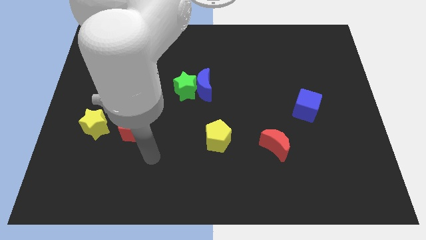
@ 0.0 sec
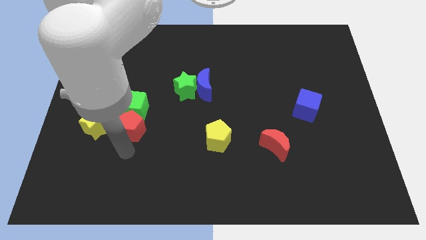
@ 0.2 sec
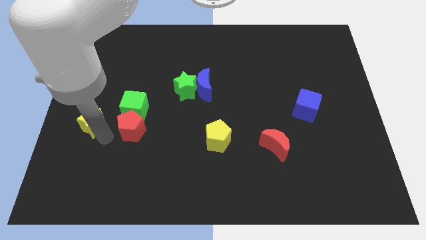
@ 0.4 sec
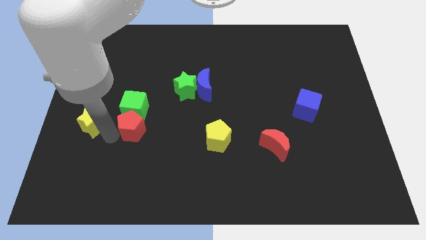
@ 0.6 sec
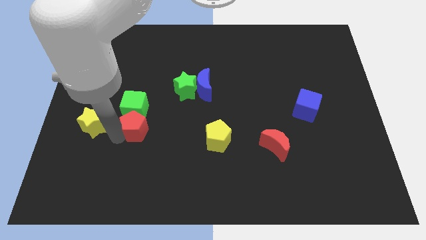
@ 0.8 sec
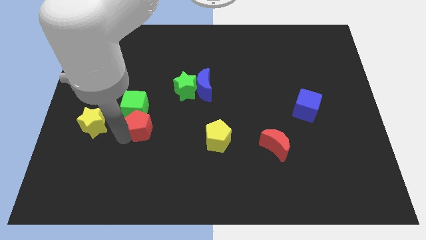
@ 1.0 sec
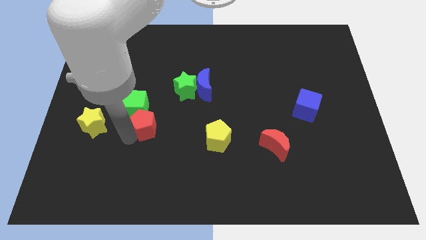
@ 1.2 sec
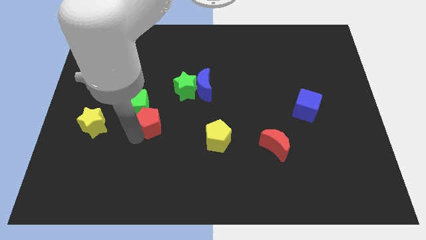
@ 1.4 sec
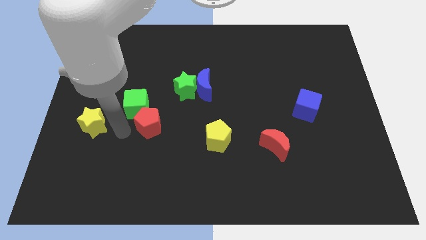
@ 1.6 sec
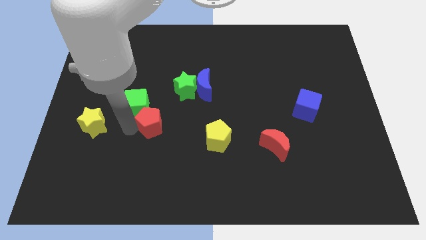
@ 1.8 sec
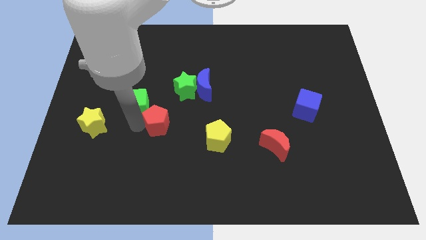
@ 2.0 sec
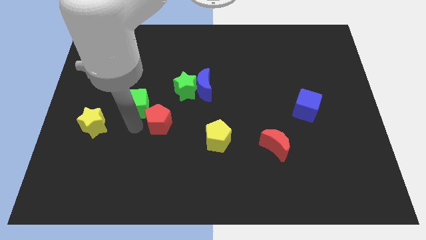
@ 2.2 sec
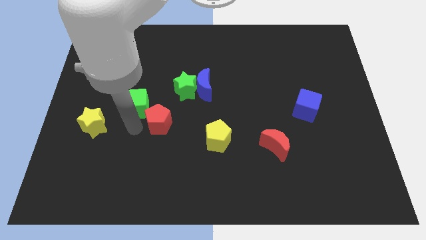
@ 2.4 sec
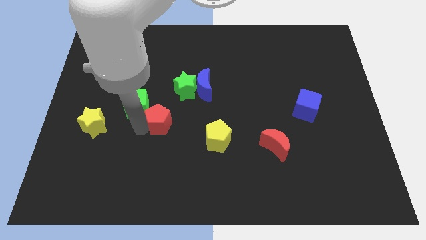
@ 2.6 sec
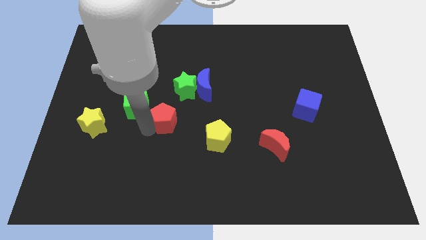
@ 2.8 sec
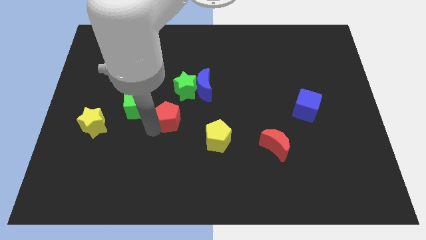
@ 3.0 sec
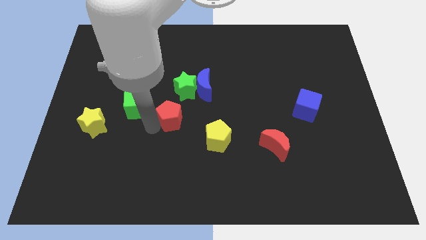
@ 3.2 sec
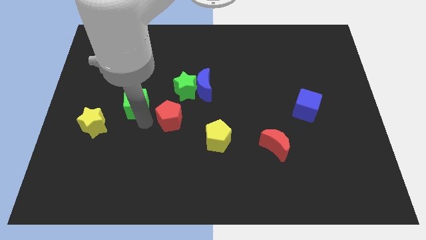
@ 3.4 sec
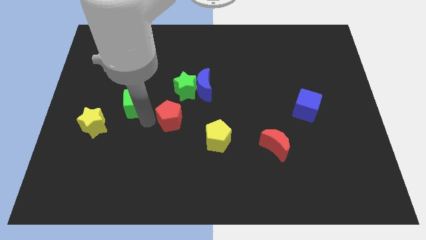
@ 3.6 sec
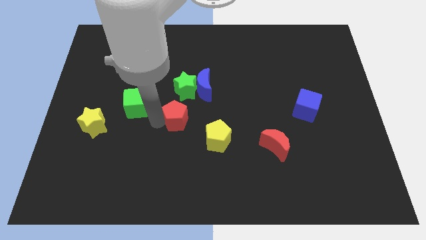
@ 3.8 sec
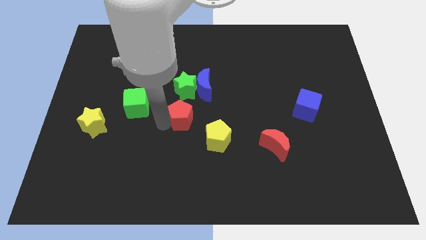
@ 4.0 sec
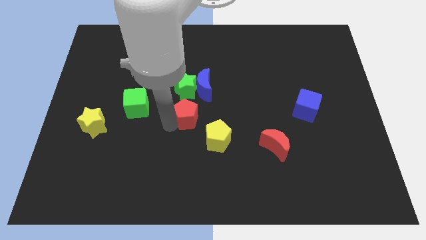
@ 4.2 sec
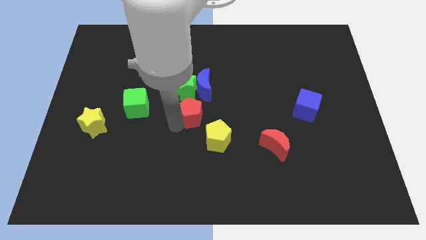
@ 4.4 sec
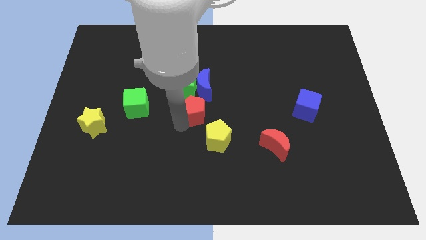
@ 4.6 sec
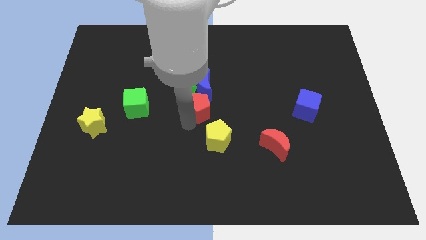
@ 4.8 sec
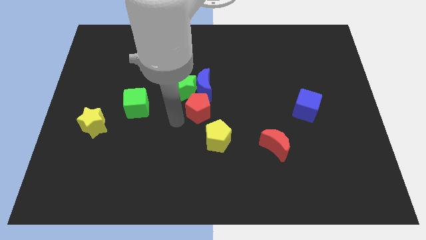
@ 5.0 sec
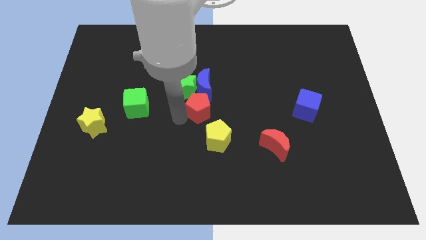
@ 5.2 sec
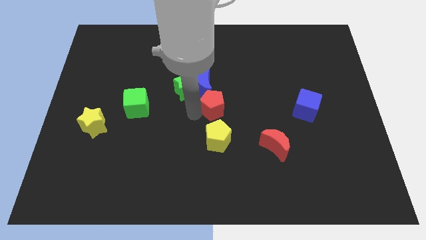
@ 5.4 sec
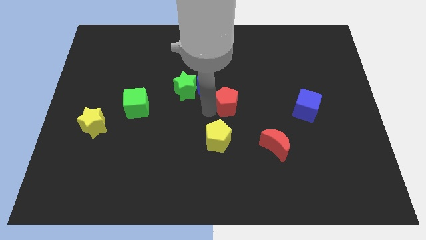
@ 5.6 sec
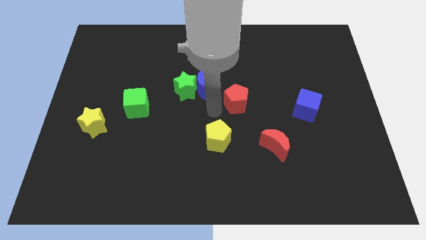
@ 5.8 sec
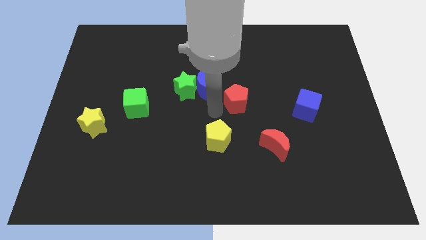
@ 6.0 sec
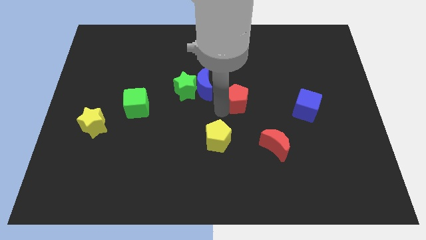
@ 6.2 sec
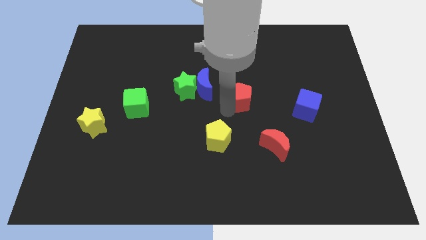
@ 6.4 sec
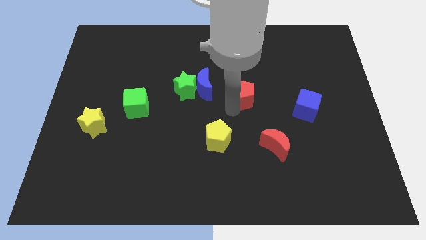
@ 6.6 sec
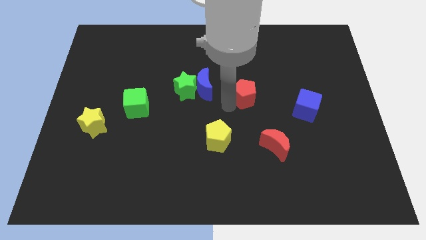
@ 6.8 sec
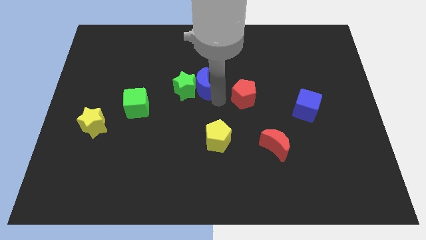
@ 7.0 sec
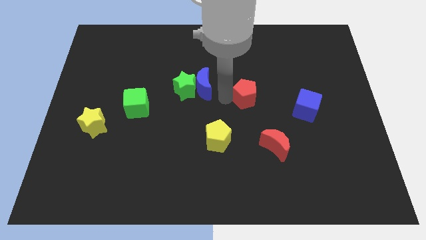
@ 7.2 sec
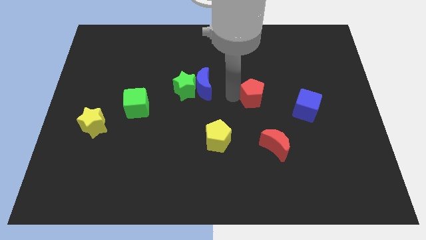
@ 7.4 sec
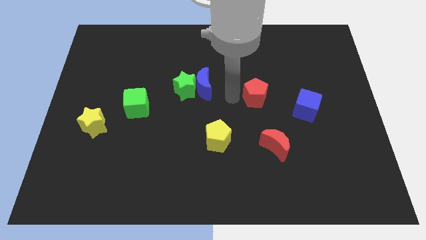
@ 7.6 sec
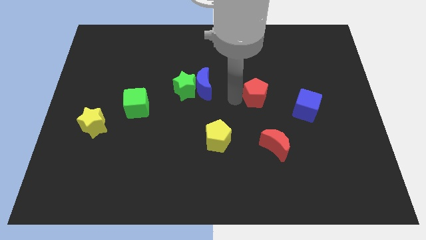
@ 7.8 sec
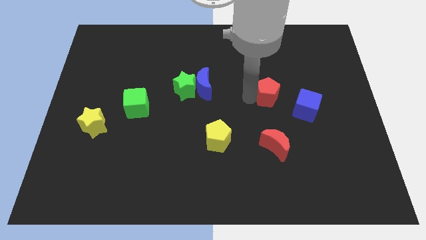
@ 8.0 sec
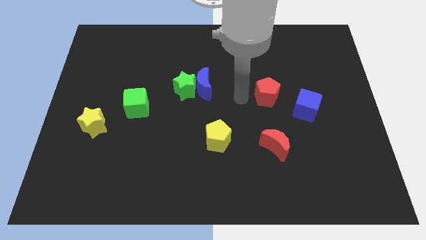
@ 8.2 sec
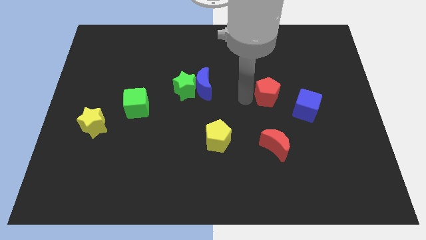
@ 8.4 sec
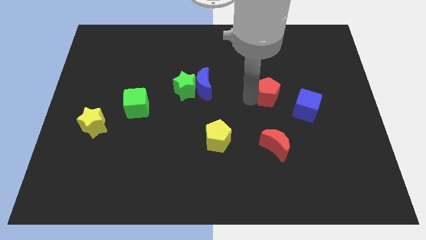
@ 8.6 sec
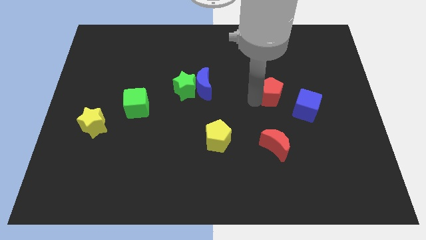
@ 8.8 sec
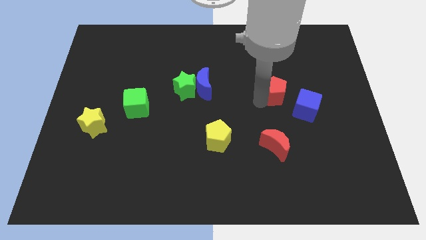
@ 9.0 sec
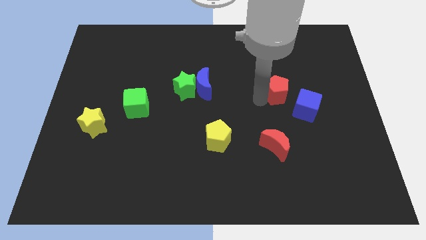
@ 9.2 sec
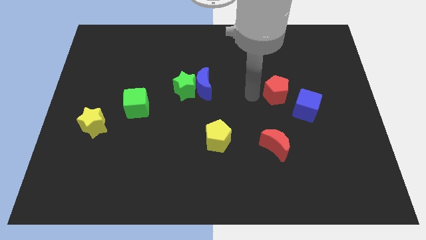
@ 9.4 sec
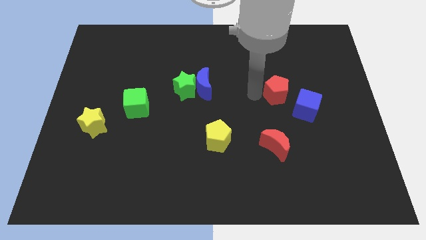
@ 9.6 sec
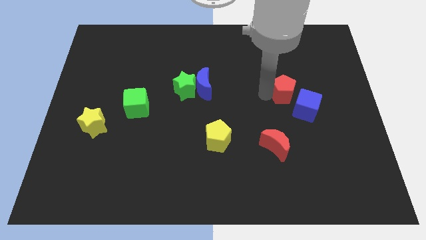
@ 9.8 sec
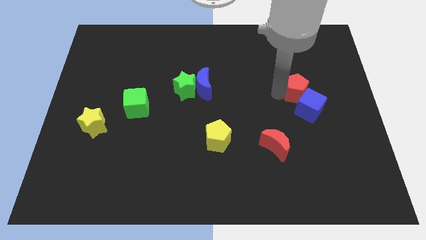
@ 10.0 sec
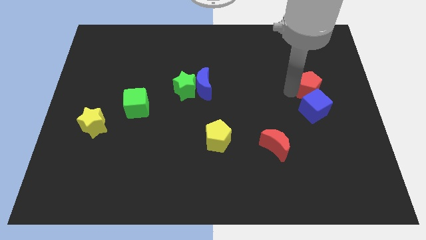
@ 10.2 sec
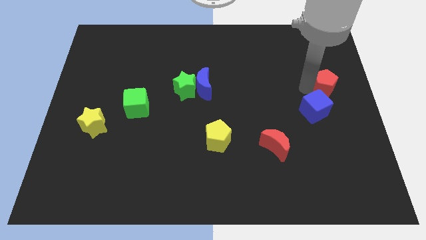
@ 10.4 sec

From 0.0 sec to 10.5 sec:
move the red pentagon to the right side
